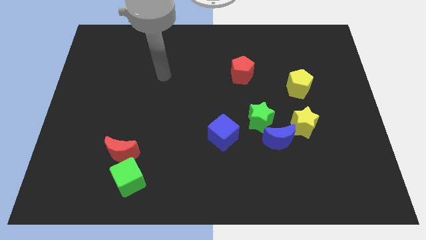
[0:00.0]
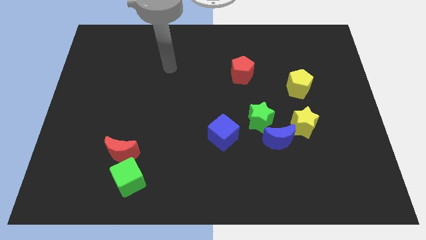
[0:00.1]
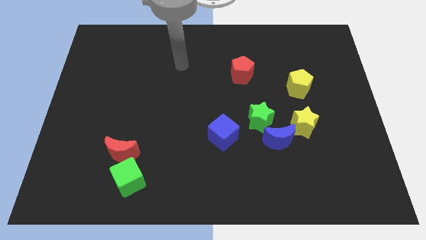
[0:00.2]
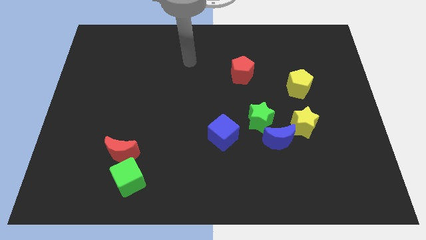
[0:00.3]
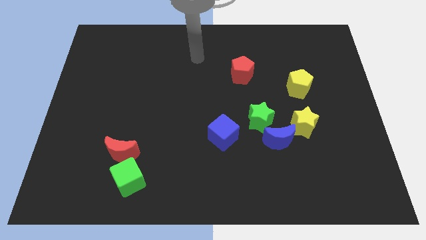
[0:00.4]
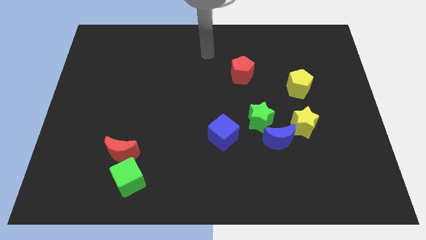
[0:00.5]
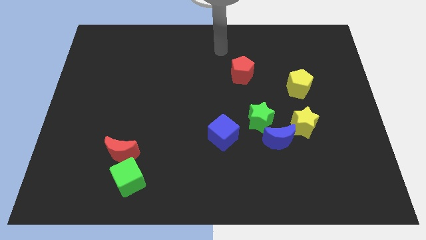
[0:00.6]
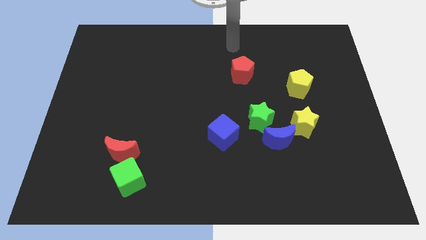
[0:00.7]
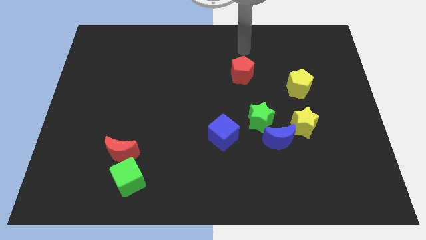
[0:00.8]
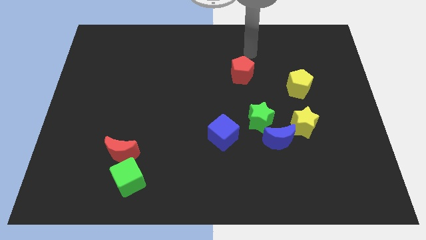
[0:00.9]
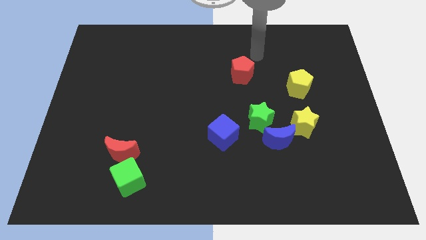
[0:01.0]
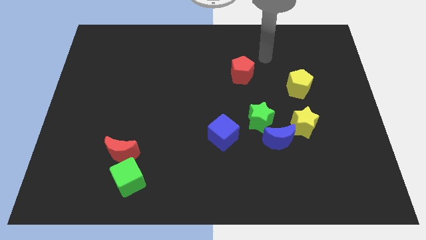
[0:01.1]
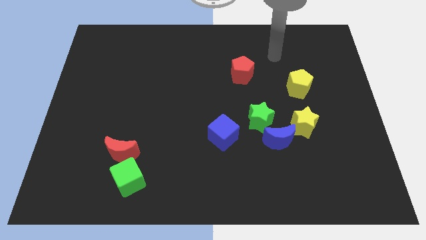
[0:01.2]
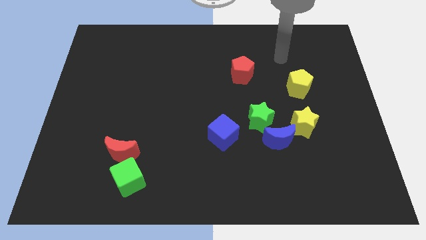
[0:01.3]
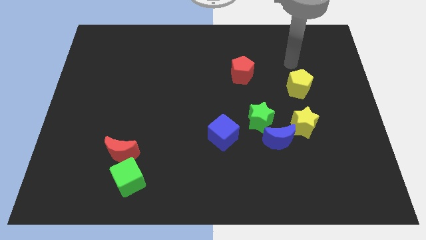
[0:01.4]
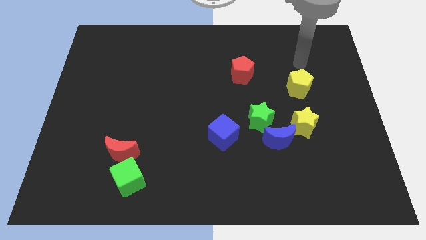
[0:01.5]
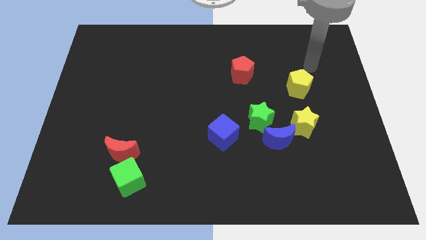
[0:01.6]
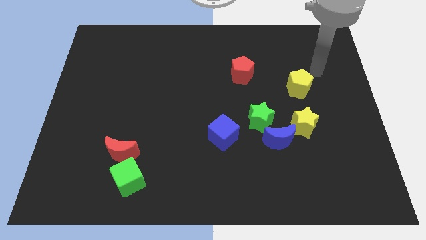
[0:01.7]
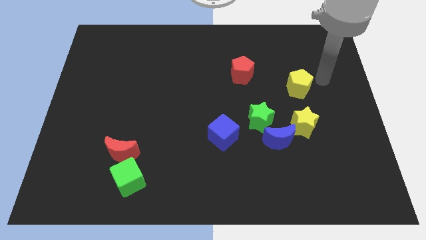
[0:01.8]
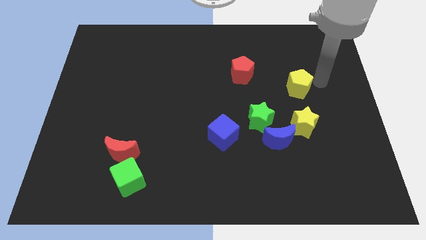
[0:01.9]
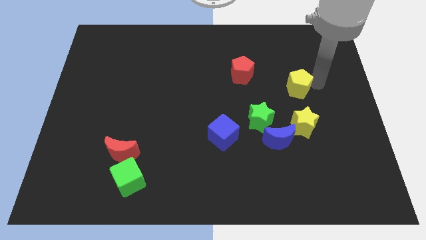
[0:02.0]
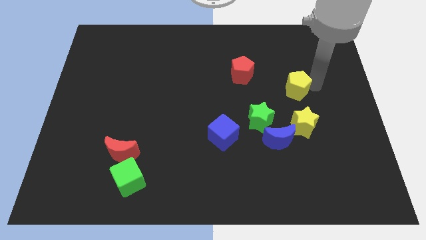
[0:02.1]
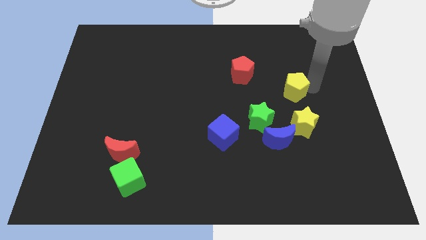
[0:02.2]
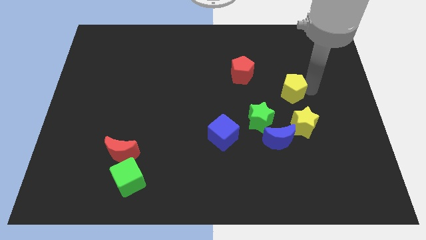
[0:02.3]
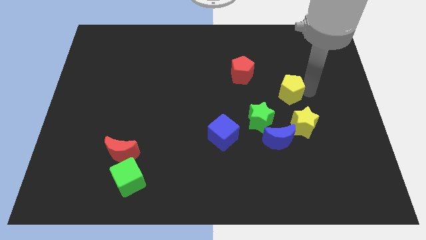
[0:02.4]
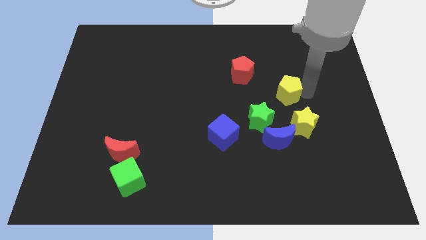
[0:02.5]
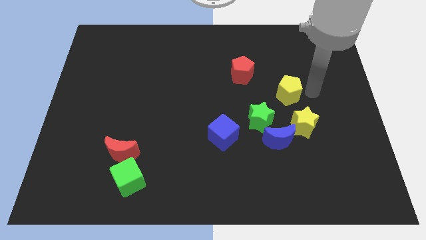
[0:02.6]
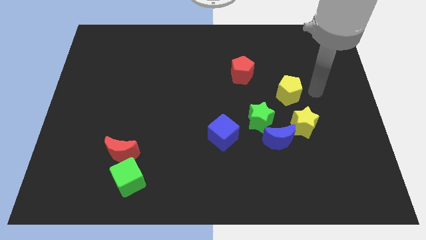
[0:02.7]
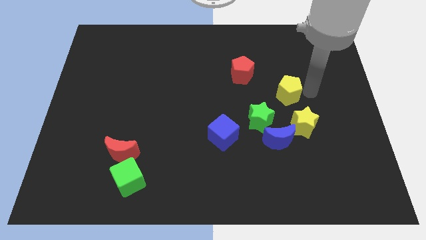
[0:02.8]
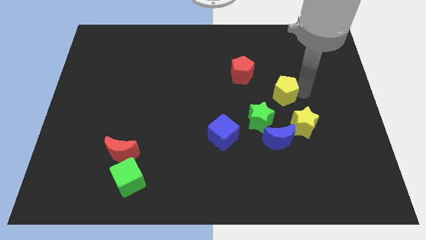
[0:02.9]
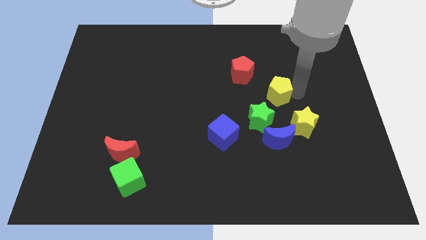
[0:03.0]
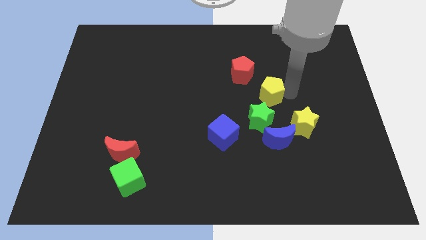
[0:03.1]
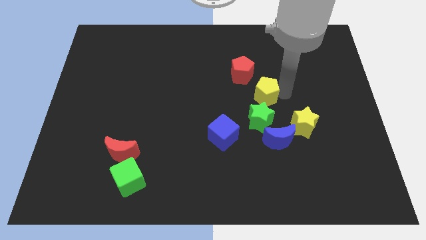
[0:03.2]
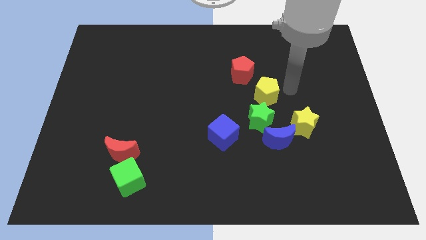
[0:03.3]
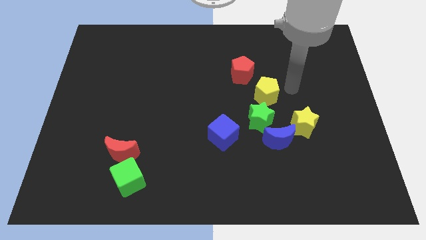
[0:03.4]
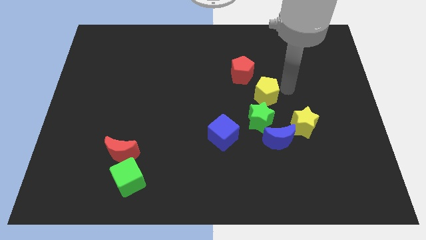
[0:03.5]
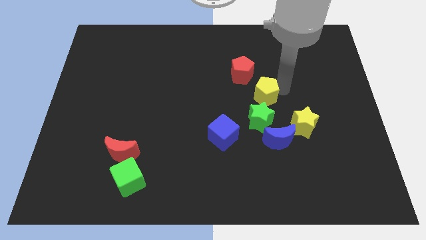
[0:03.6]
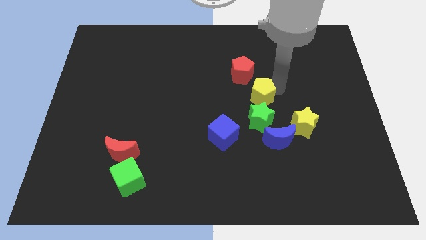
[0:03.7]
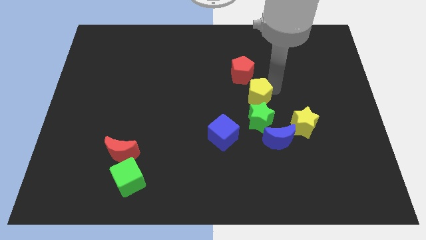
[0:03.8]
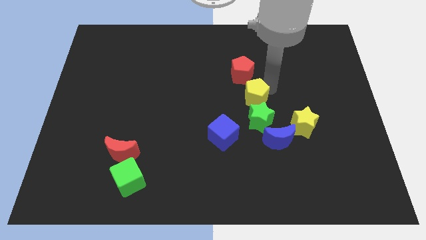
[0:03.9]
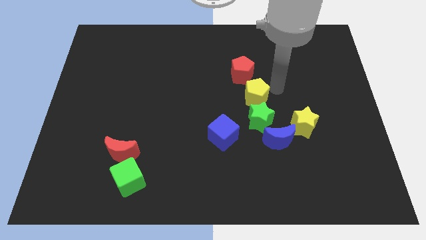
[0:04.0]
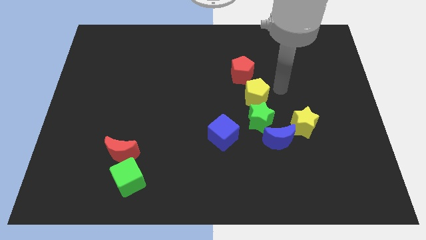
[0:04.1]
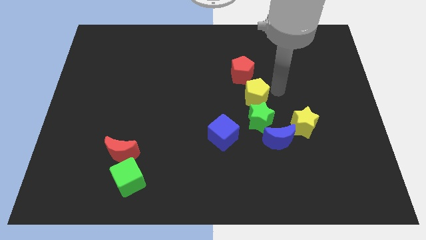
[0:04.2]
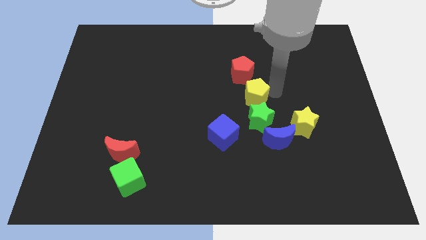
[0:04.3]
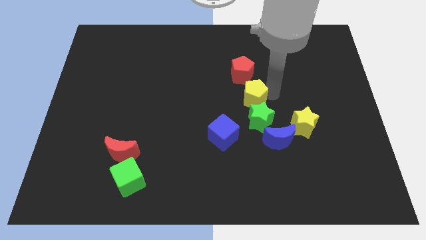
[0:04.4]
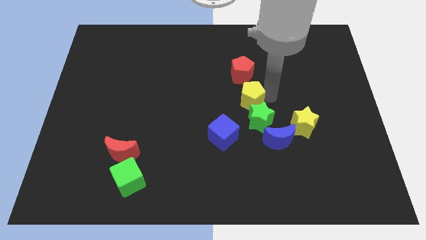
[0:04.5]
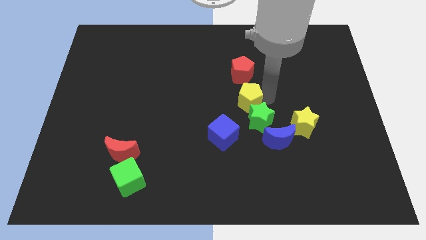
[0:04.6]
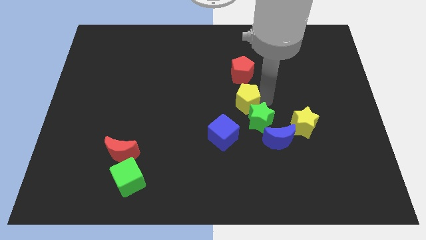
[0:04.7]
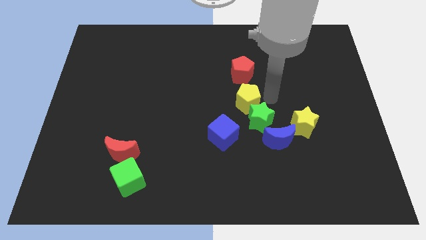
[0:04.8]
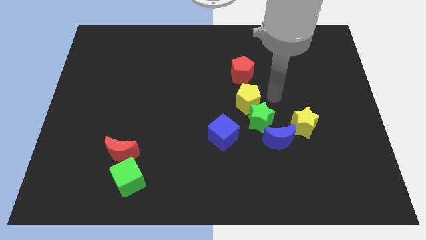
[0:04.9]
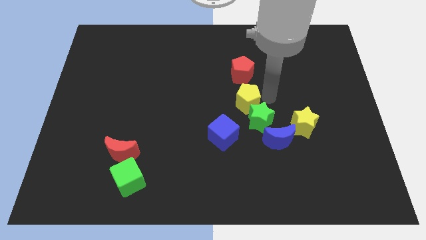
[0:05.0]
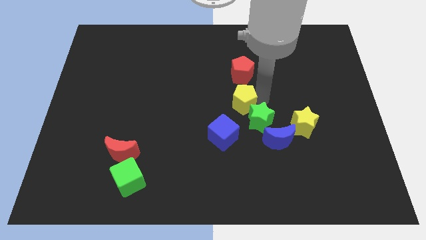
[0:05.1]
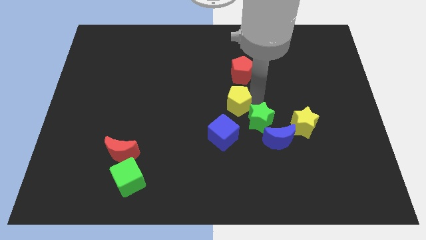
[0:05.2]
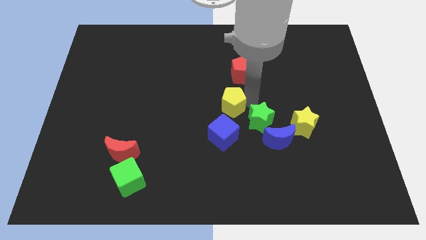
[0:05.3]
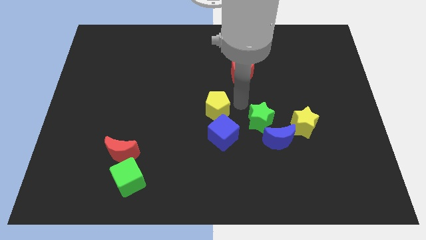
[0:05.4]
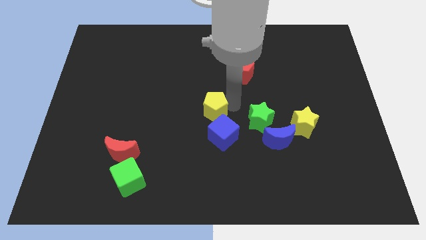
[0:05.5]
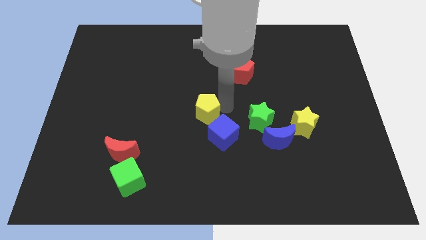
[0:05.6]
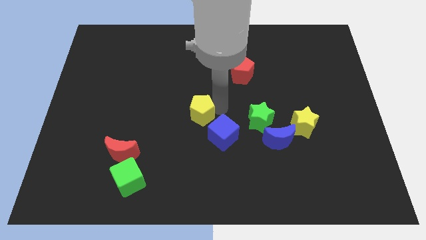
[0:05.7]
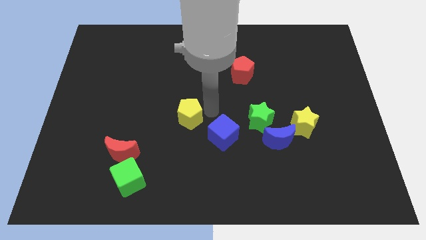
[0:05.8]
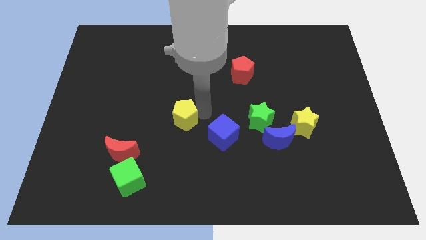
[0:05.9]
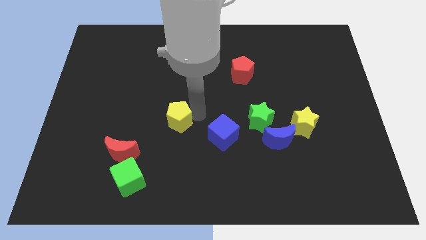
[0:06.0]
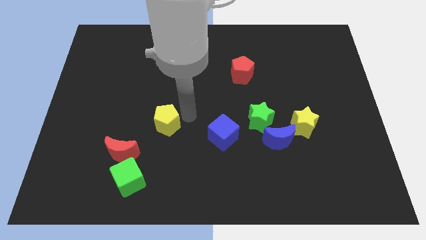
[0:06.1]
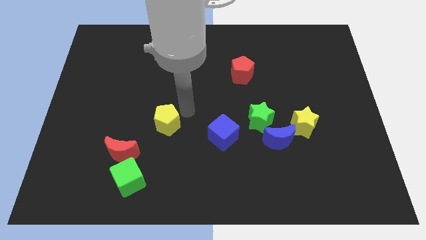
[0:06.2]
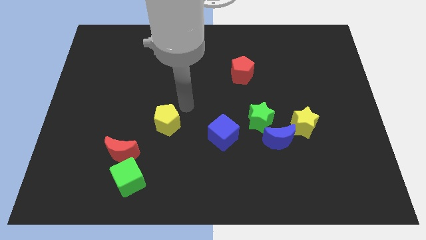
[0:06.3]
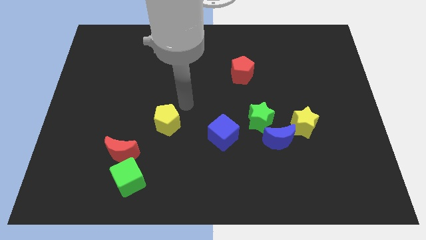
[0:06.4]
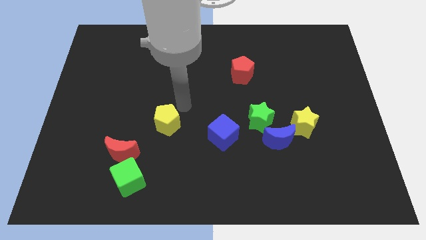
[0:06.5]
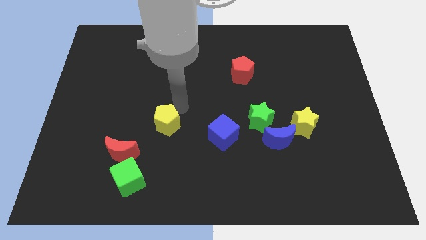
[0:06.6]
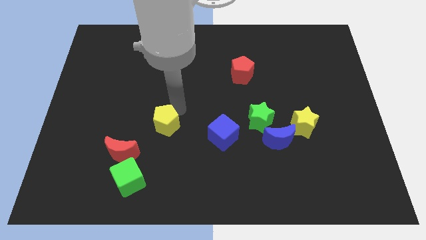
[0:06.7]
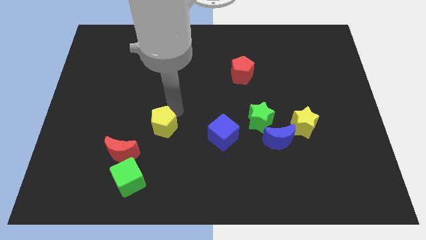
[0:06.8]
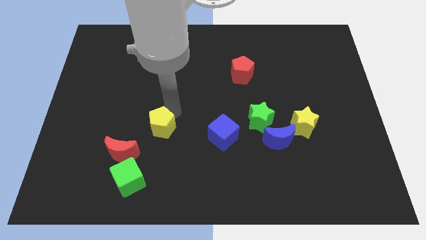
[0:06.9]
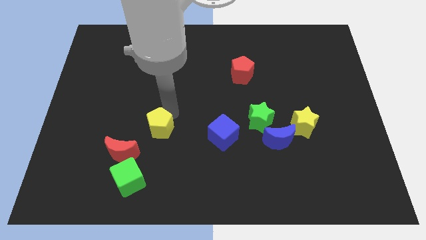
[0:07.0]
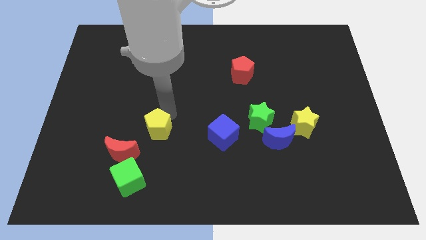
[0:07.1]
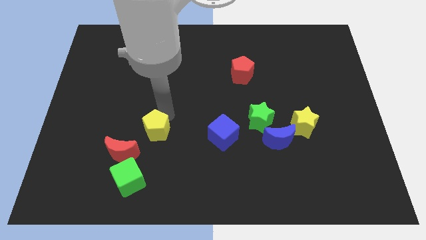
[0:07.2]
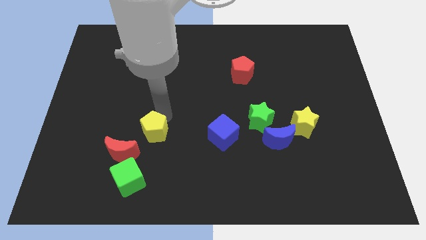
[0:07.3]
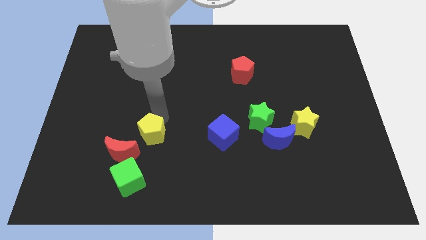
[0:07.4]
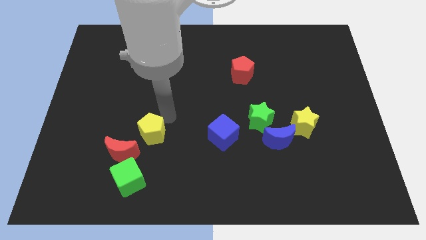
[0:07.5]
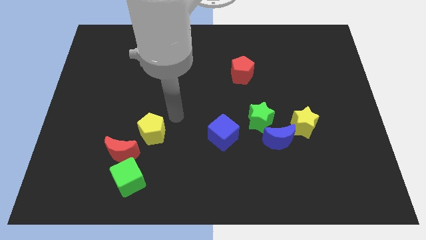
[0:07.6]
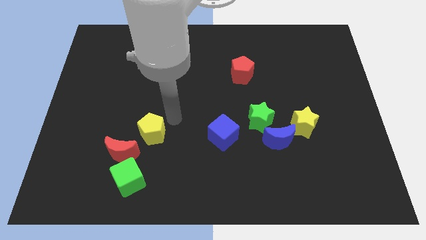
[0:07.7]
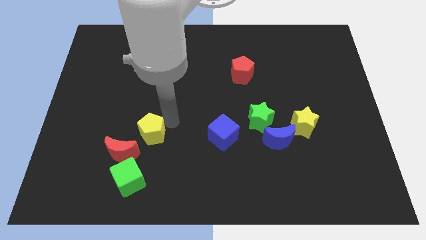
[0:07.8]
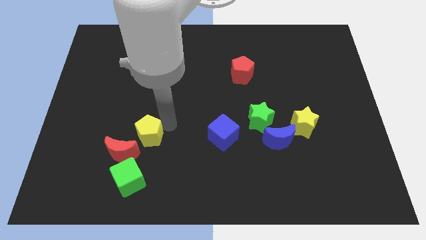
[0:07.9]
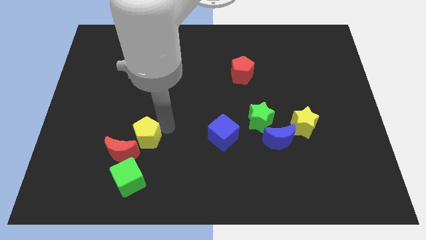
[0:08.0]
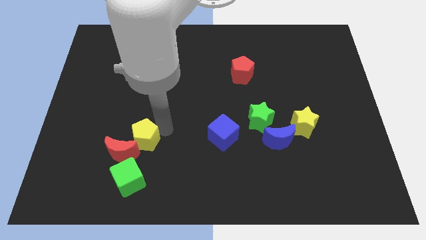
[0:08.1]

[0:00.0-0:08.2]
put the yellow pentagon to the red moon
